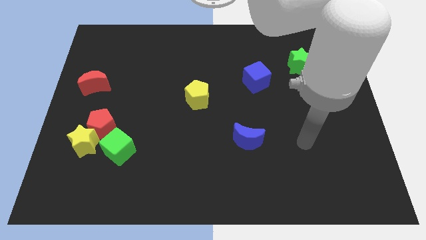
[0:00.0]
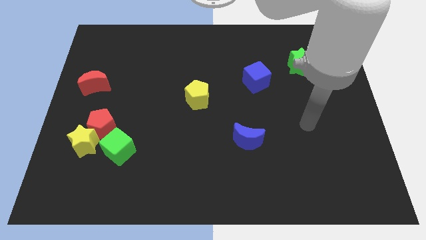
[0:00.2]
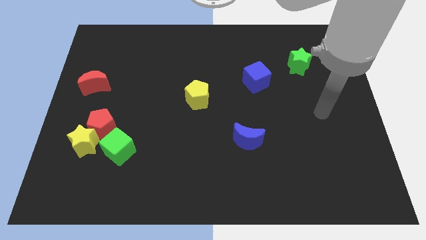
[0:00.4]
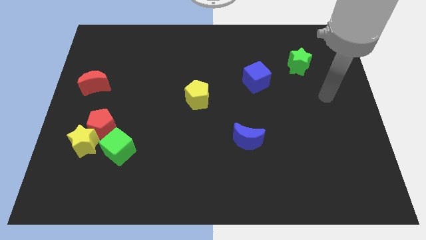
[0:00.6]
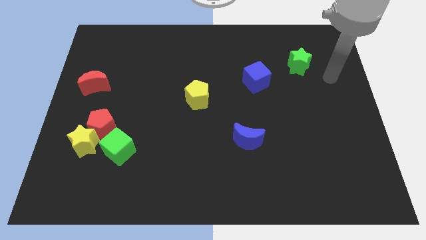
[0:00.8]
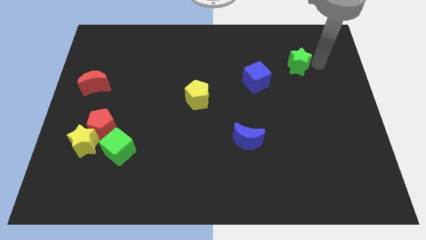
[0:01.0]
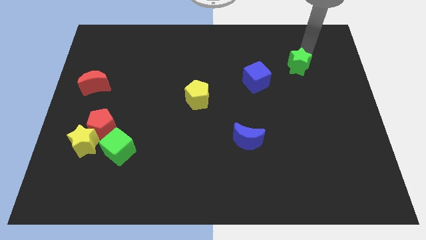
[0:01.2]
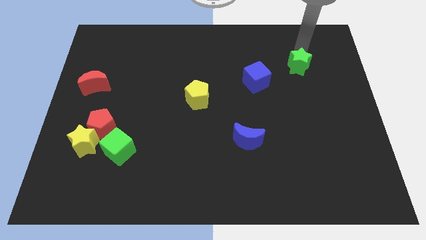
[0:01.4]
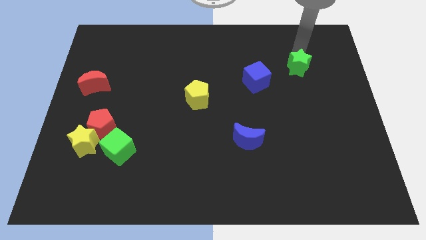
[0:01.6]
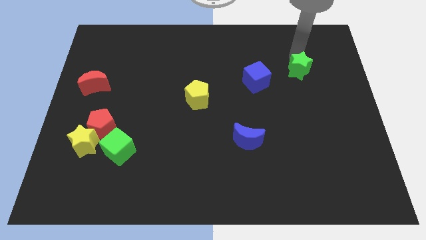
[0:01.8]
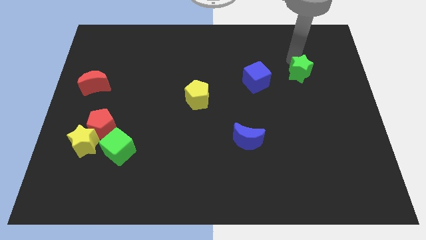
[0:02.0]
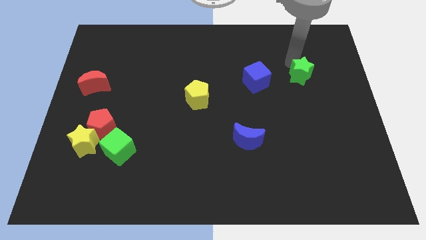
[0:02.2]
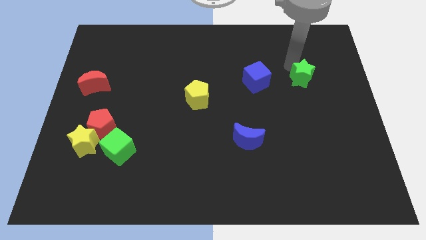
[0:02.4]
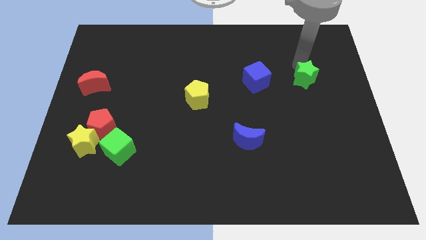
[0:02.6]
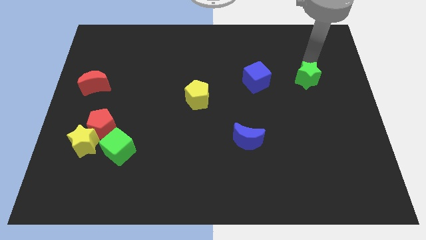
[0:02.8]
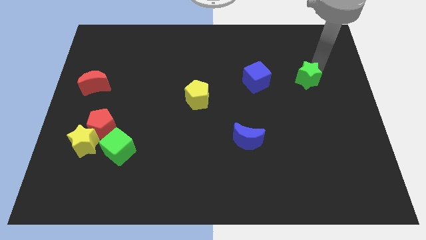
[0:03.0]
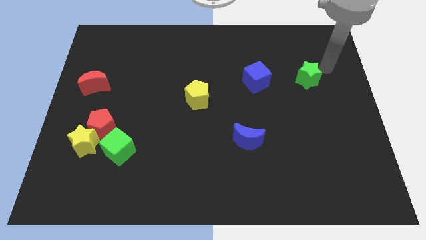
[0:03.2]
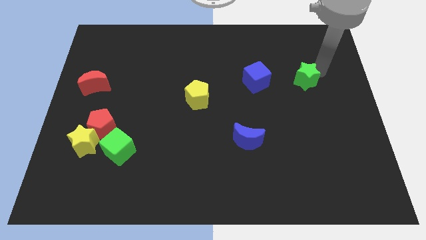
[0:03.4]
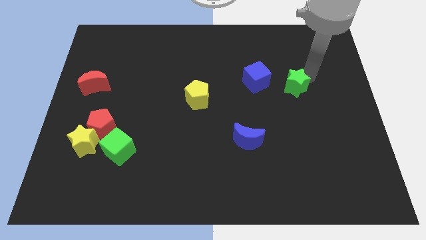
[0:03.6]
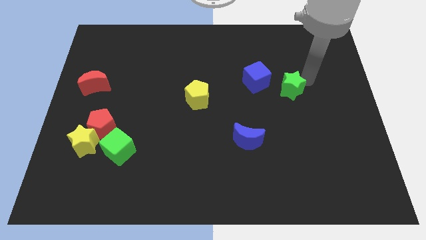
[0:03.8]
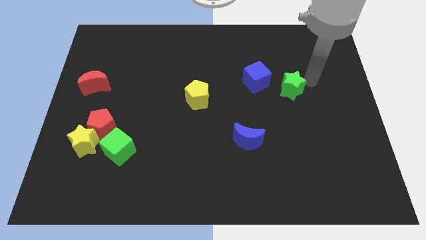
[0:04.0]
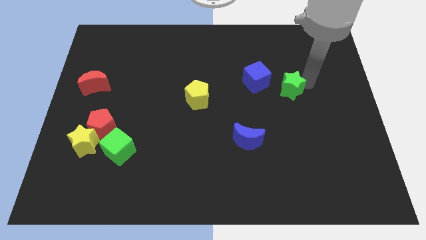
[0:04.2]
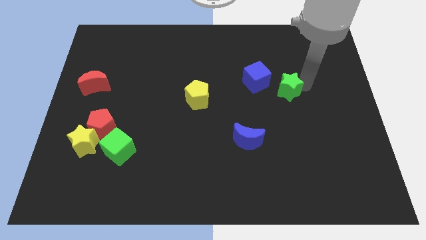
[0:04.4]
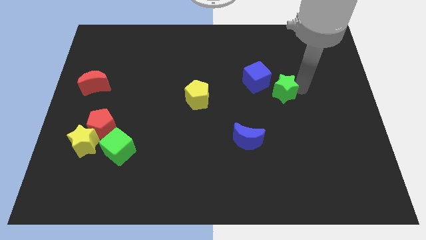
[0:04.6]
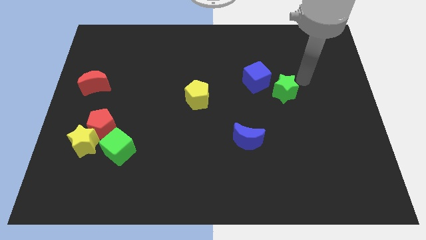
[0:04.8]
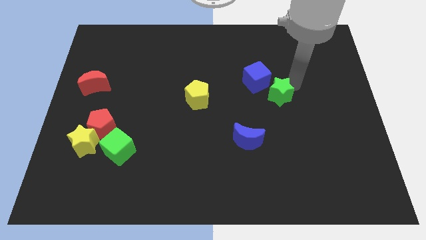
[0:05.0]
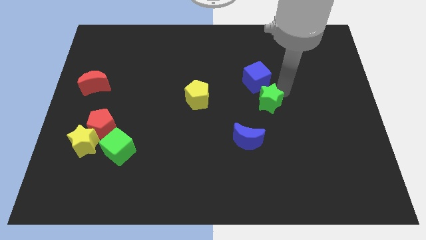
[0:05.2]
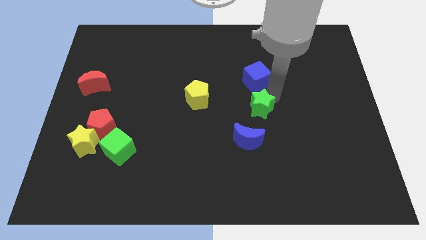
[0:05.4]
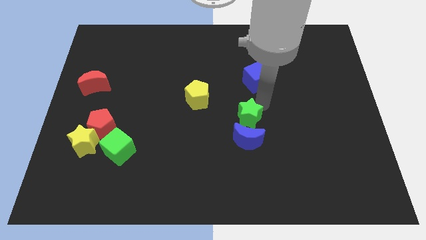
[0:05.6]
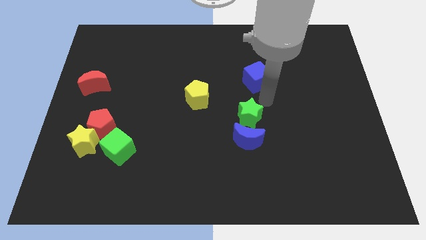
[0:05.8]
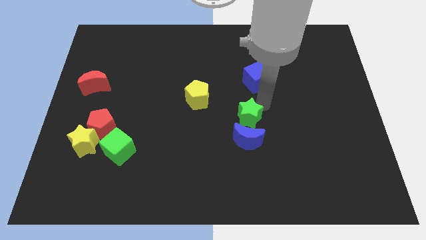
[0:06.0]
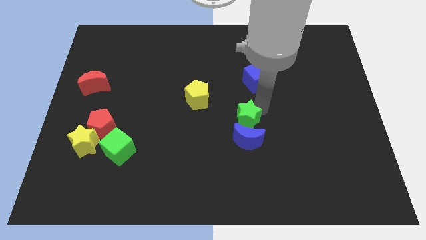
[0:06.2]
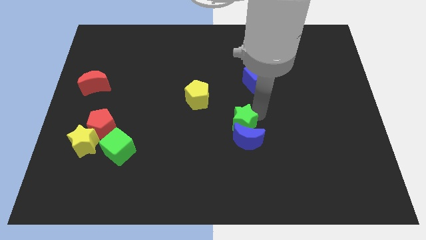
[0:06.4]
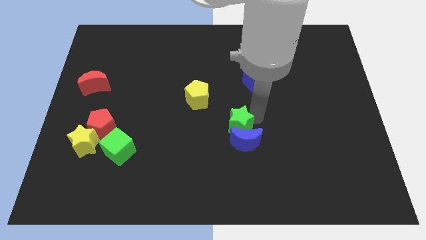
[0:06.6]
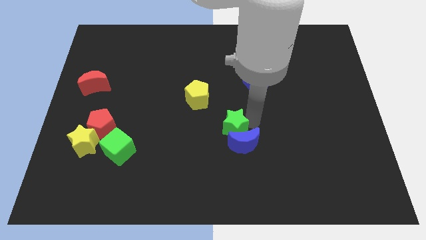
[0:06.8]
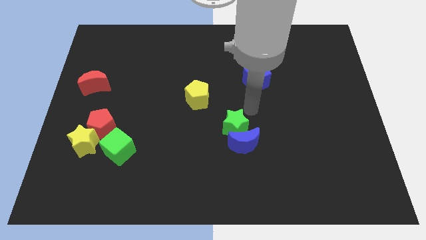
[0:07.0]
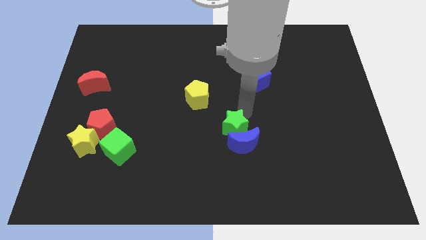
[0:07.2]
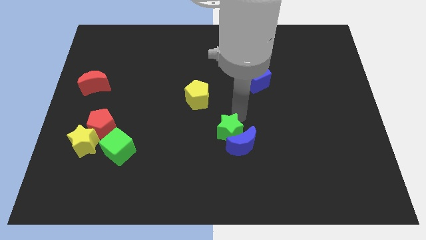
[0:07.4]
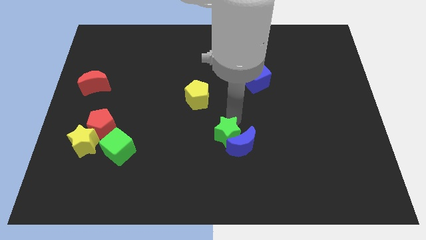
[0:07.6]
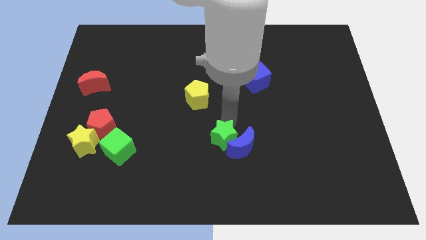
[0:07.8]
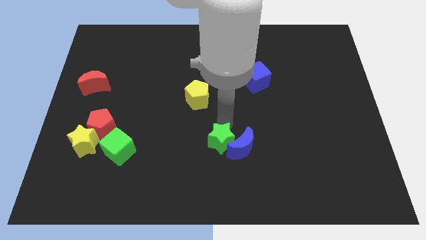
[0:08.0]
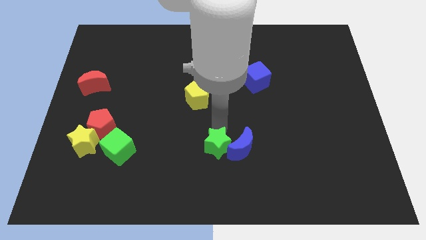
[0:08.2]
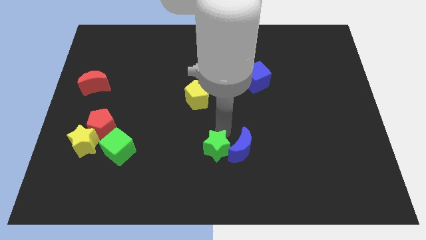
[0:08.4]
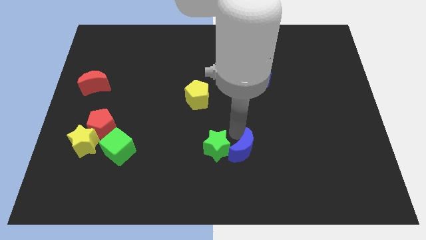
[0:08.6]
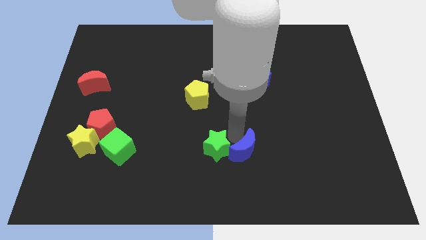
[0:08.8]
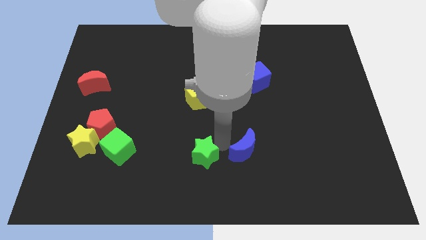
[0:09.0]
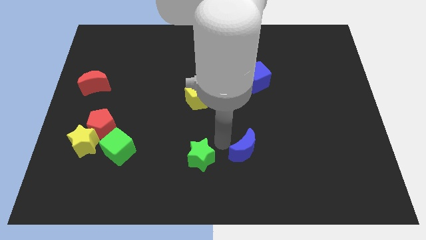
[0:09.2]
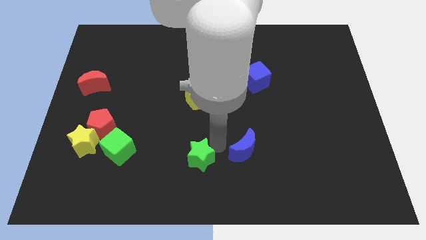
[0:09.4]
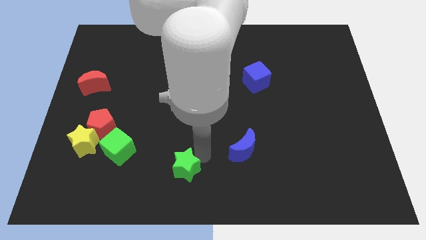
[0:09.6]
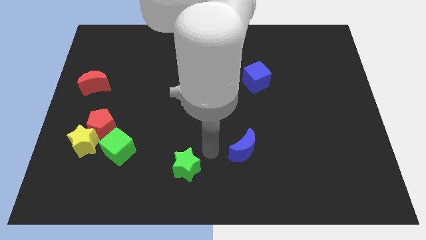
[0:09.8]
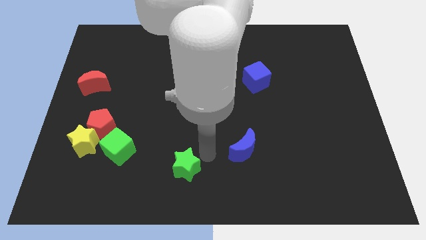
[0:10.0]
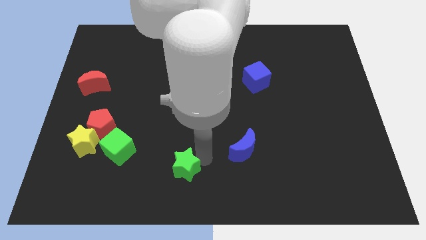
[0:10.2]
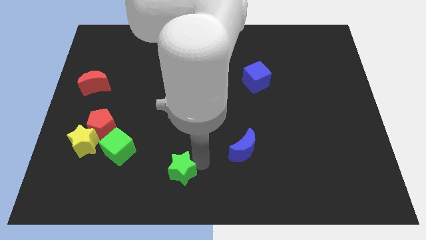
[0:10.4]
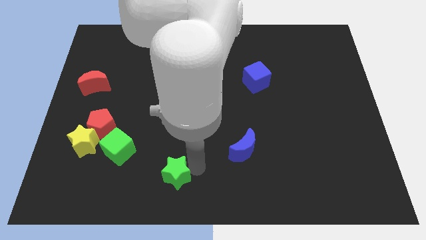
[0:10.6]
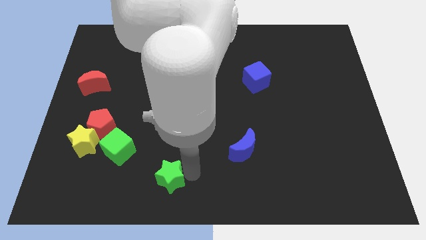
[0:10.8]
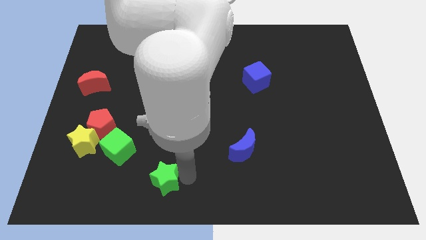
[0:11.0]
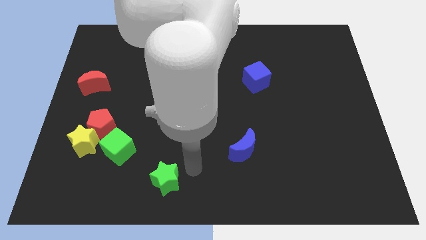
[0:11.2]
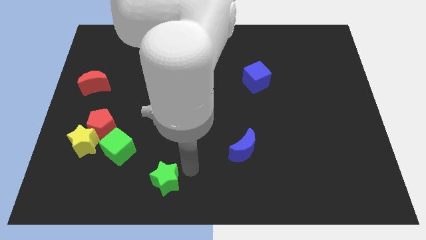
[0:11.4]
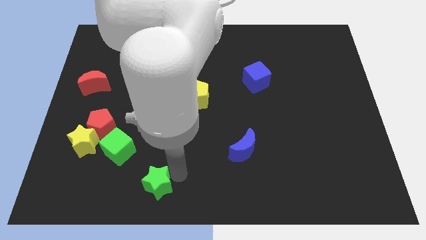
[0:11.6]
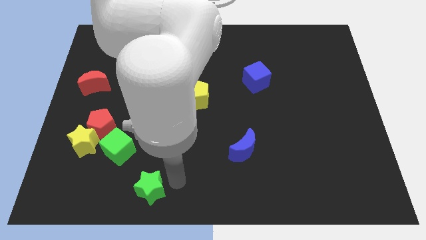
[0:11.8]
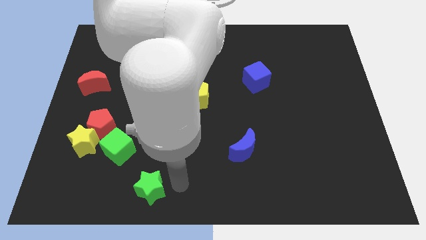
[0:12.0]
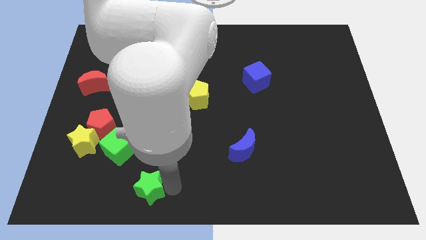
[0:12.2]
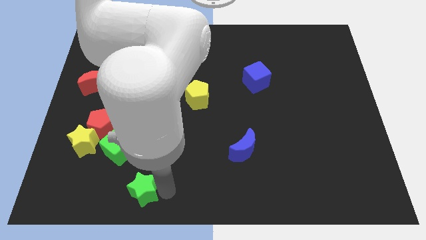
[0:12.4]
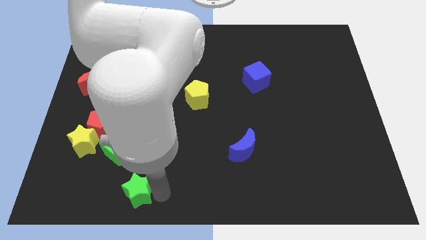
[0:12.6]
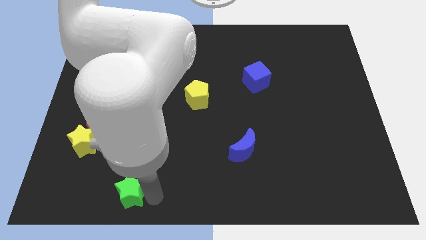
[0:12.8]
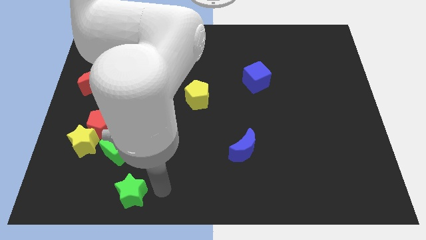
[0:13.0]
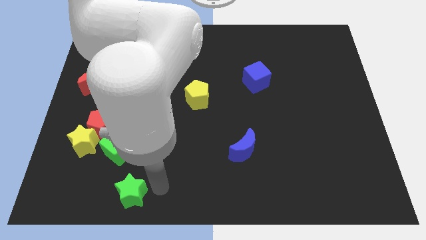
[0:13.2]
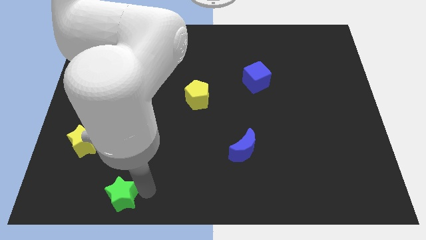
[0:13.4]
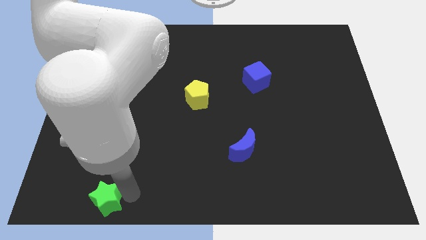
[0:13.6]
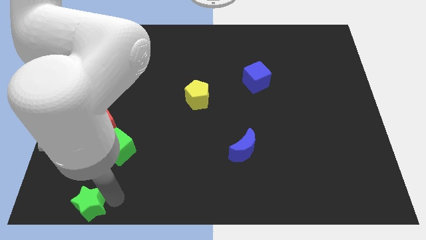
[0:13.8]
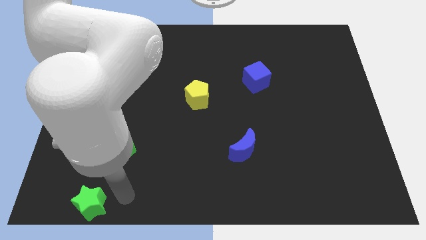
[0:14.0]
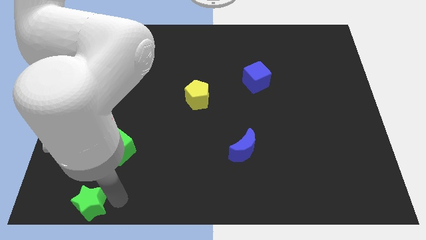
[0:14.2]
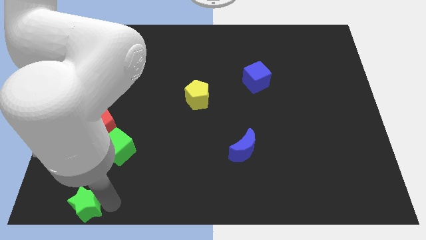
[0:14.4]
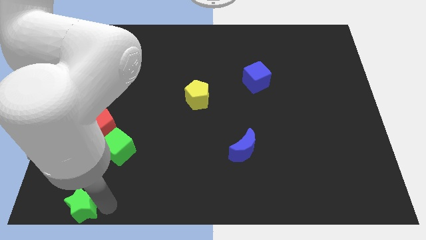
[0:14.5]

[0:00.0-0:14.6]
slide the green star to the bottom left corner
